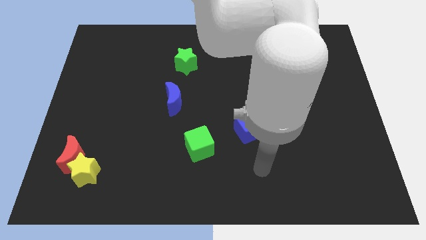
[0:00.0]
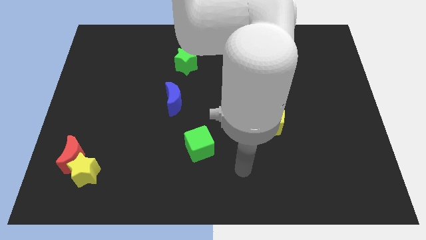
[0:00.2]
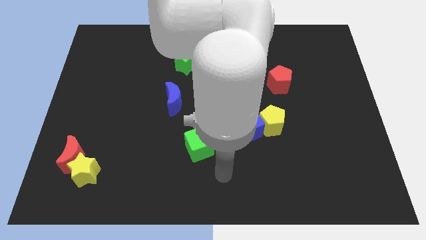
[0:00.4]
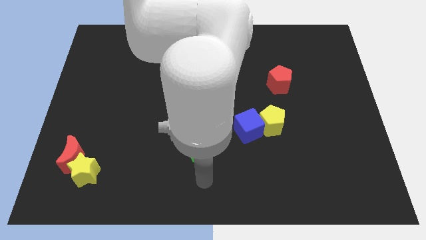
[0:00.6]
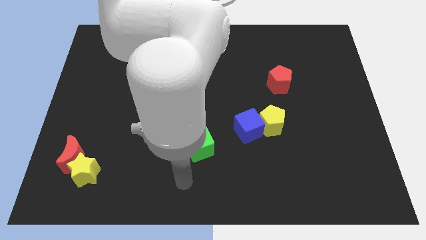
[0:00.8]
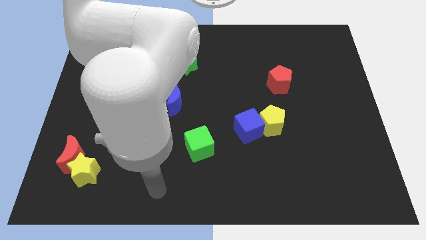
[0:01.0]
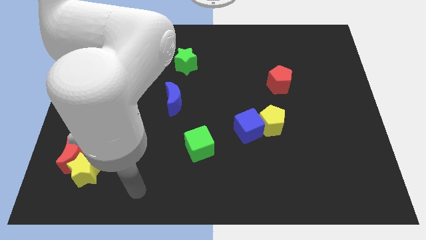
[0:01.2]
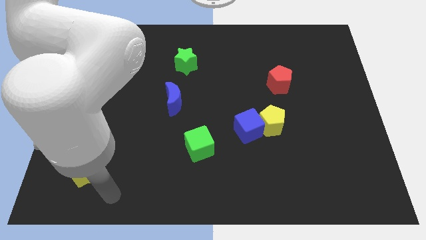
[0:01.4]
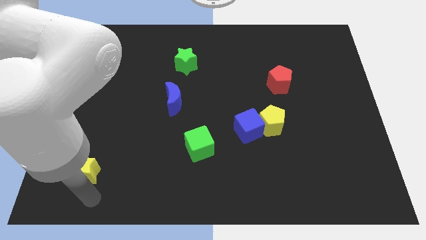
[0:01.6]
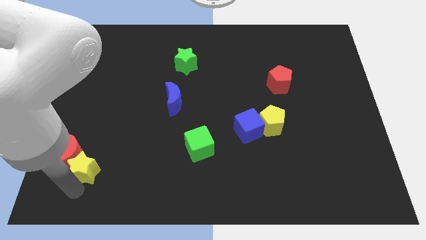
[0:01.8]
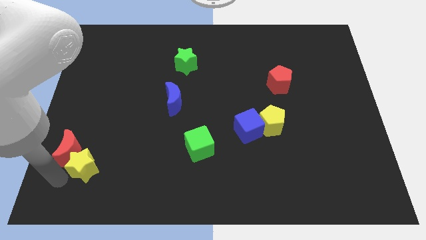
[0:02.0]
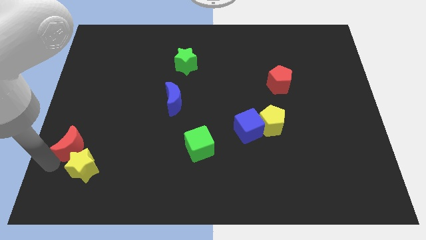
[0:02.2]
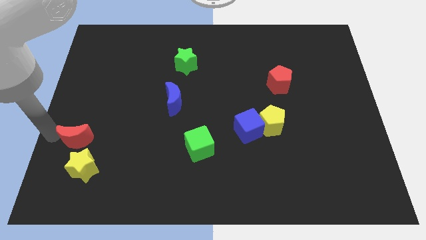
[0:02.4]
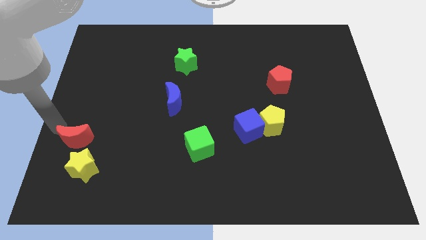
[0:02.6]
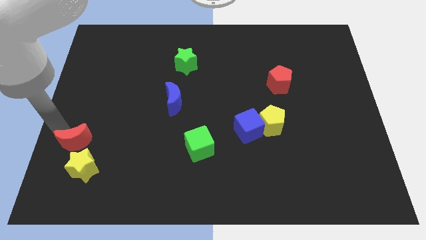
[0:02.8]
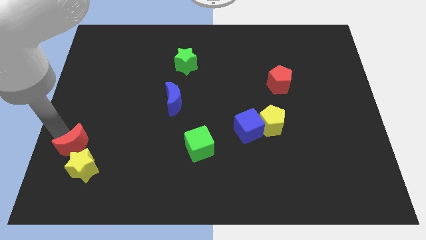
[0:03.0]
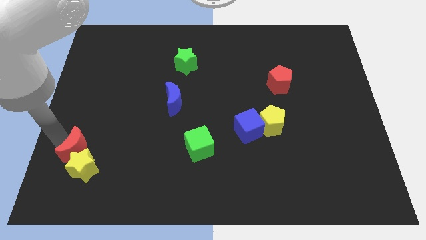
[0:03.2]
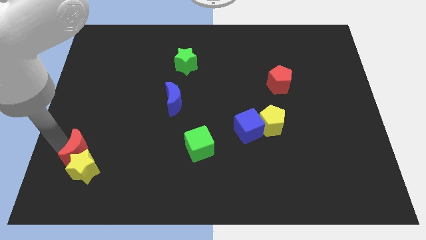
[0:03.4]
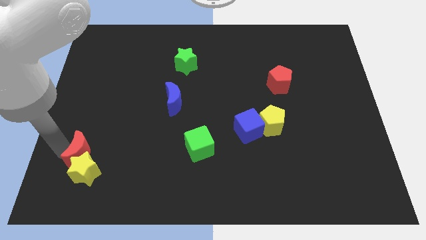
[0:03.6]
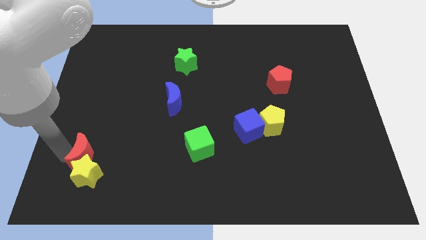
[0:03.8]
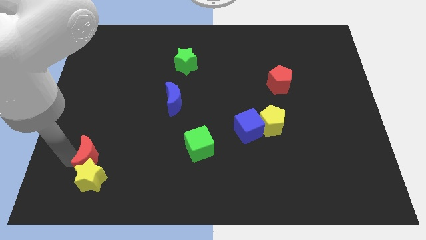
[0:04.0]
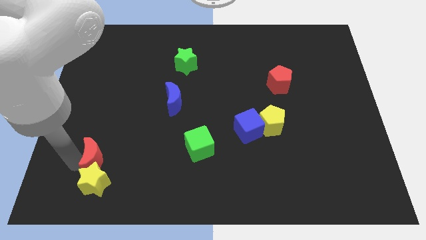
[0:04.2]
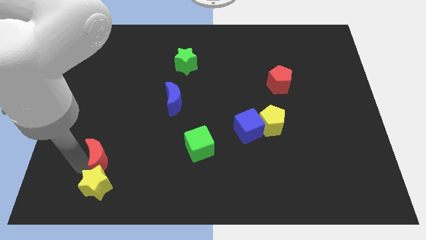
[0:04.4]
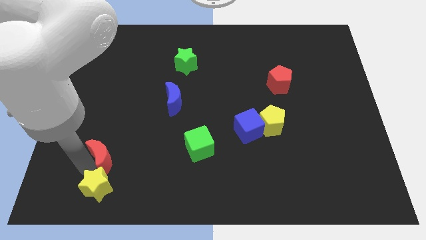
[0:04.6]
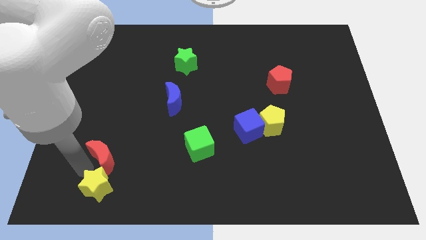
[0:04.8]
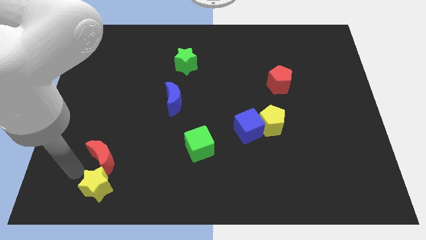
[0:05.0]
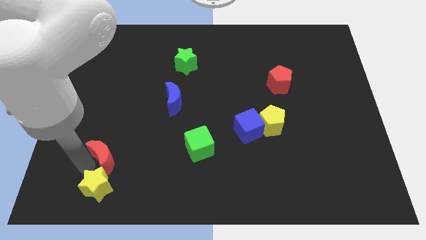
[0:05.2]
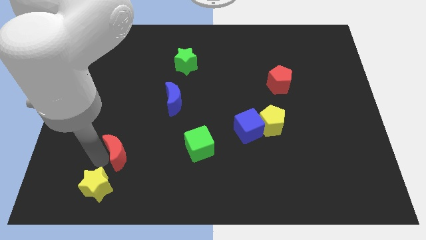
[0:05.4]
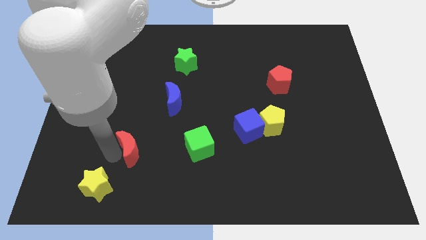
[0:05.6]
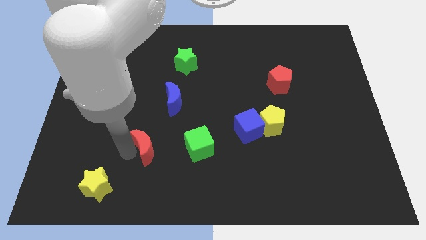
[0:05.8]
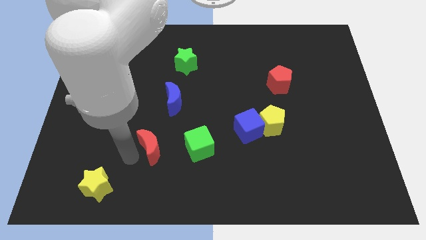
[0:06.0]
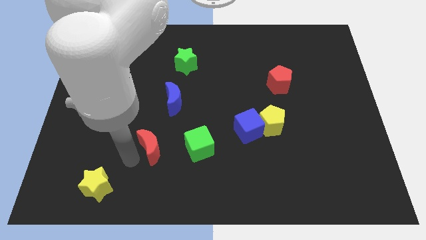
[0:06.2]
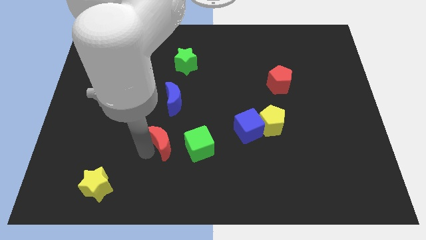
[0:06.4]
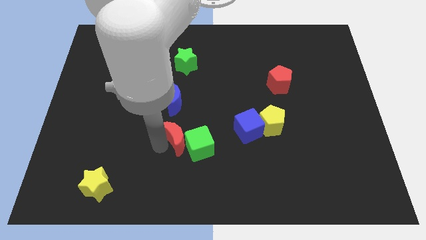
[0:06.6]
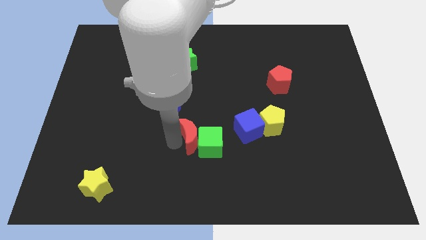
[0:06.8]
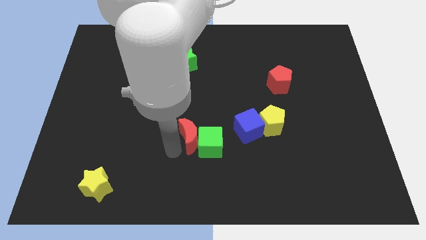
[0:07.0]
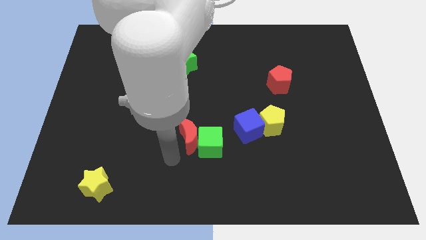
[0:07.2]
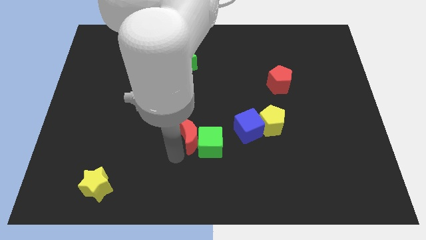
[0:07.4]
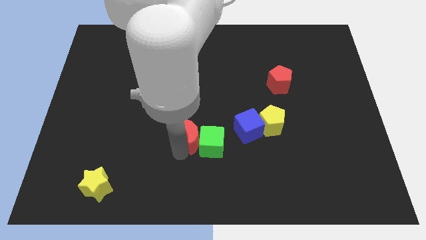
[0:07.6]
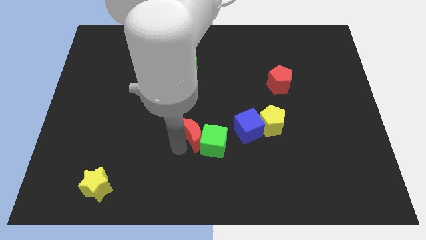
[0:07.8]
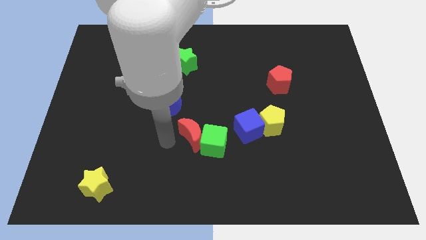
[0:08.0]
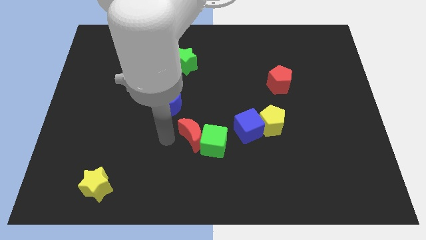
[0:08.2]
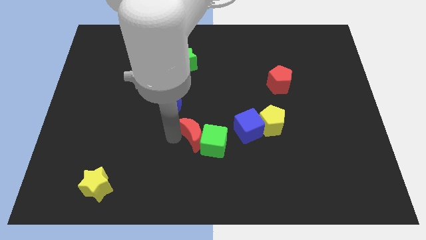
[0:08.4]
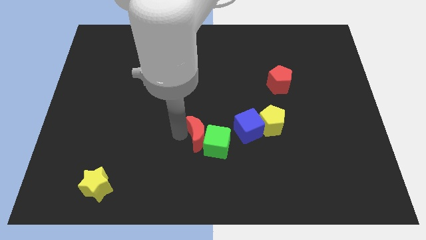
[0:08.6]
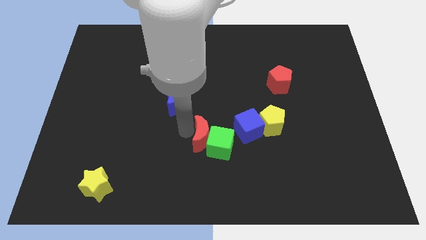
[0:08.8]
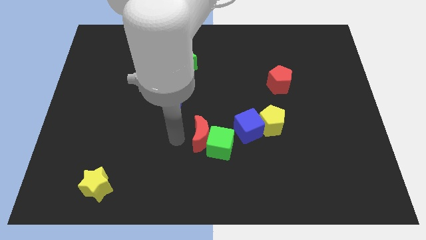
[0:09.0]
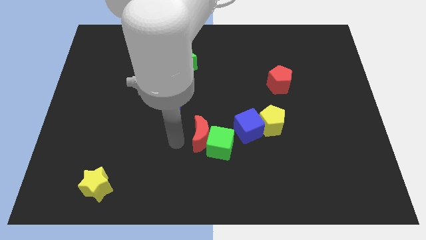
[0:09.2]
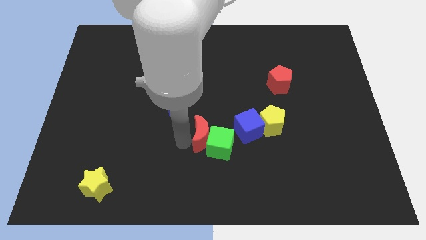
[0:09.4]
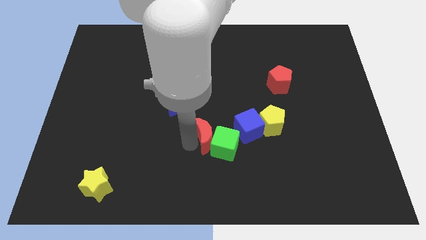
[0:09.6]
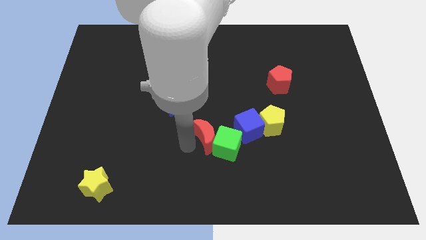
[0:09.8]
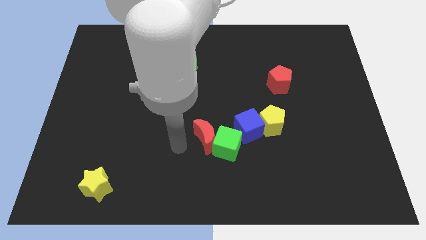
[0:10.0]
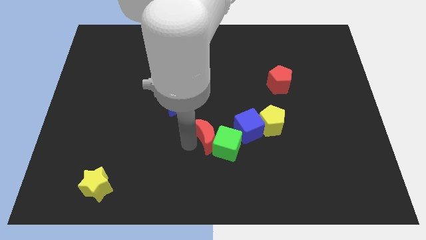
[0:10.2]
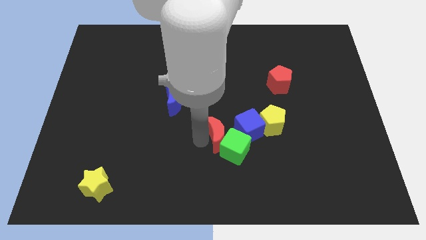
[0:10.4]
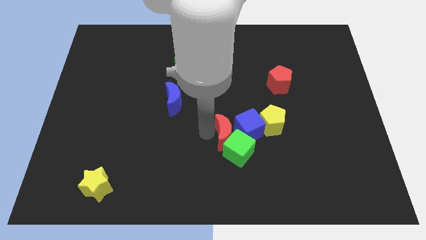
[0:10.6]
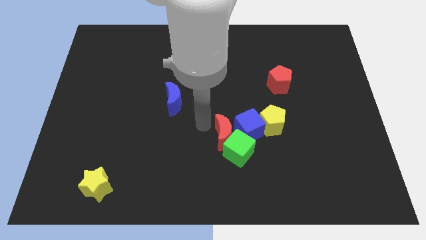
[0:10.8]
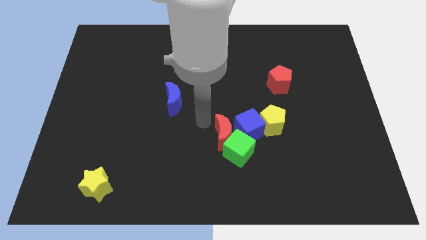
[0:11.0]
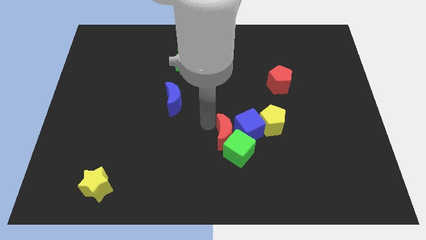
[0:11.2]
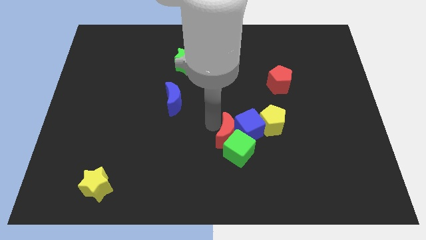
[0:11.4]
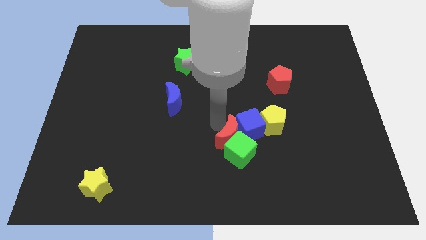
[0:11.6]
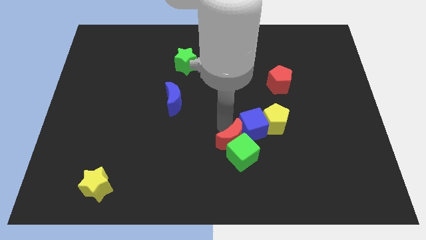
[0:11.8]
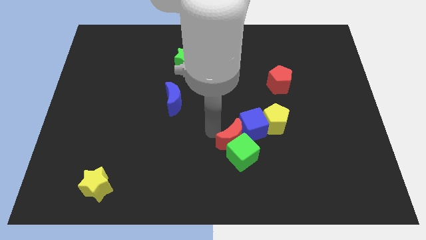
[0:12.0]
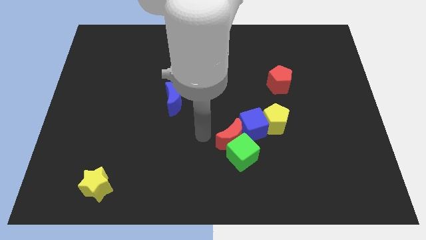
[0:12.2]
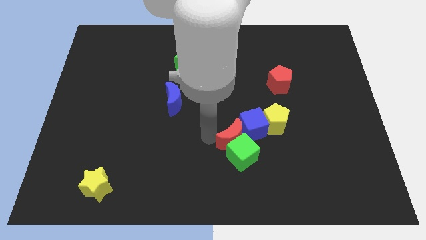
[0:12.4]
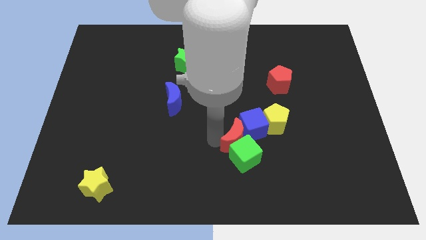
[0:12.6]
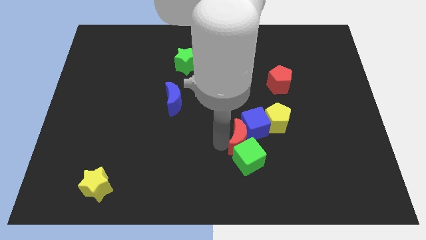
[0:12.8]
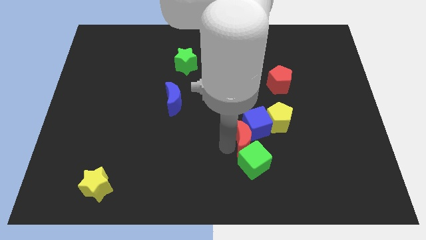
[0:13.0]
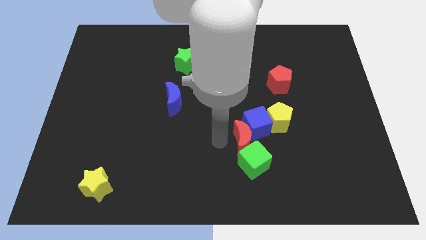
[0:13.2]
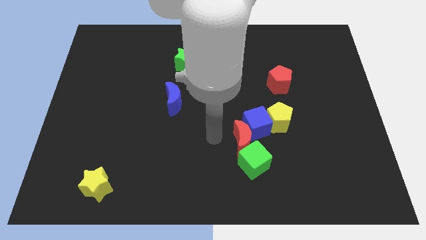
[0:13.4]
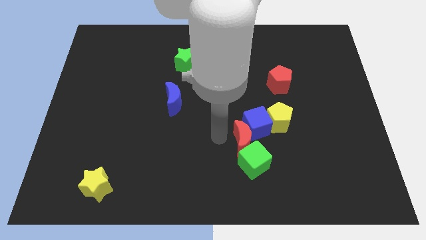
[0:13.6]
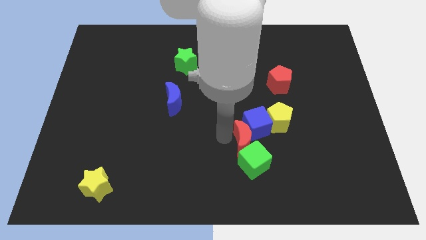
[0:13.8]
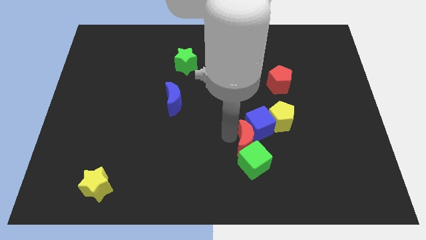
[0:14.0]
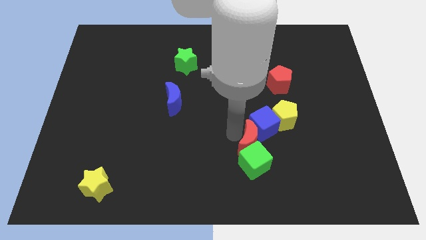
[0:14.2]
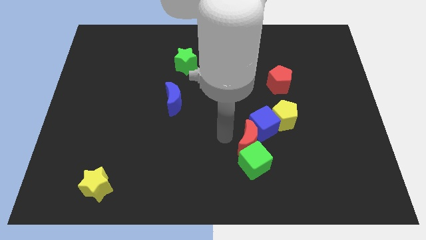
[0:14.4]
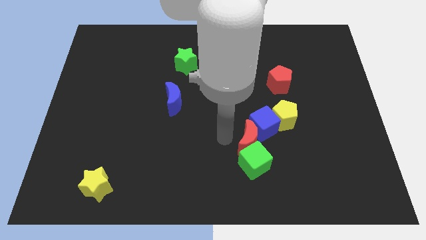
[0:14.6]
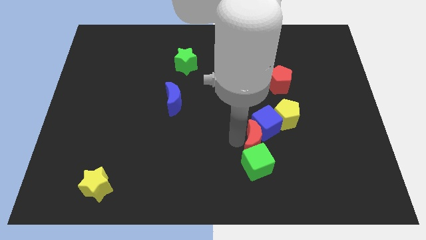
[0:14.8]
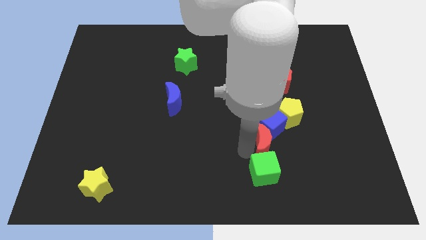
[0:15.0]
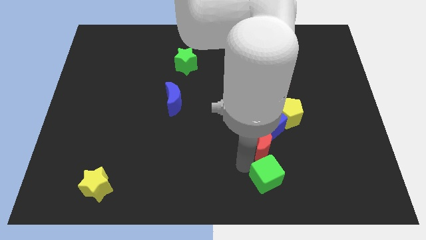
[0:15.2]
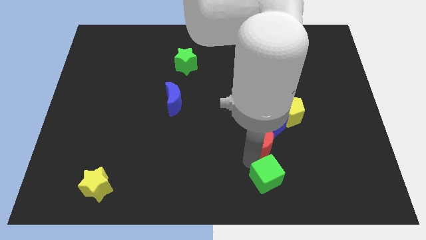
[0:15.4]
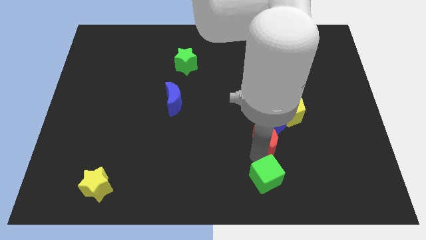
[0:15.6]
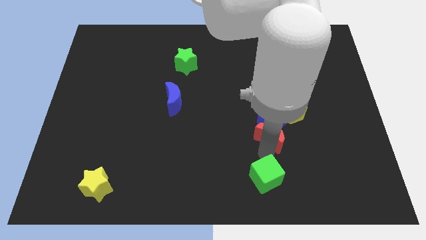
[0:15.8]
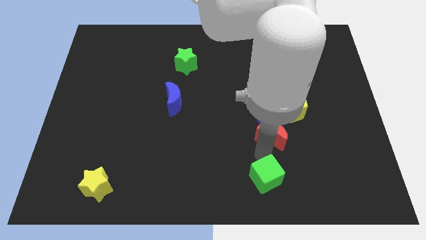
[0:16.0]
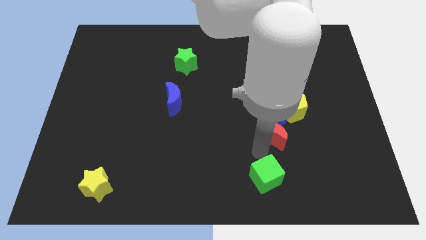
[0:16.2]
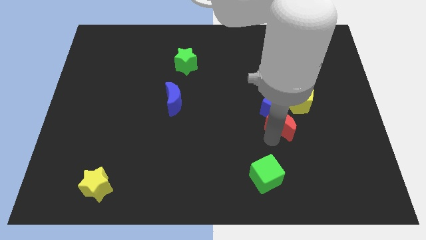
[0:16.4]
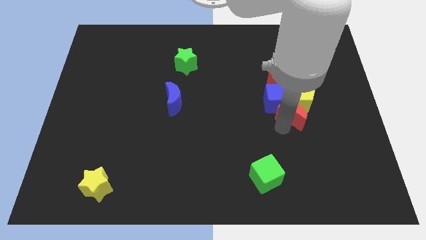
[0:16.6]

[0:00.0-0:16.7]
put the red moon next to the yellow pentagon
